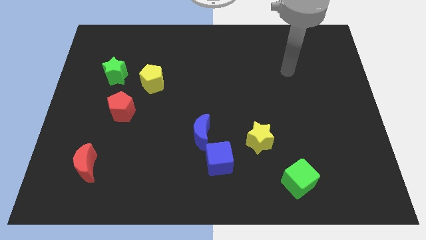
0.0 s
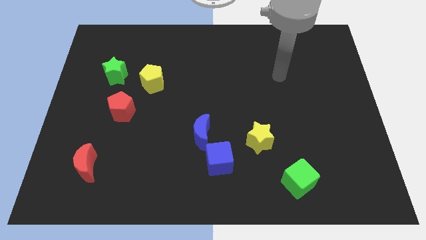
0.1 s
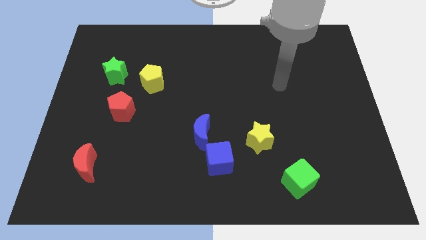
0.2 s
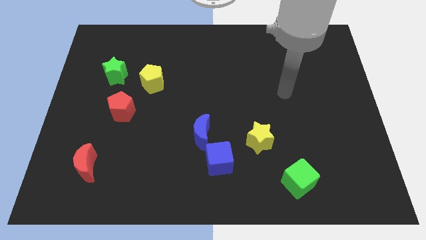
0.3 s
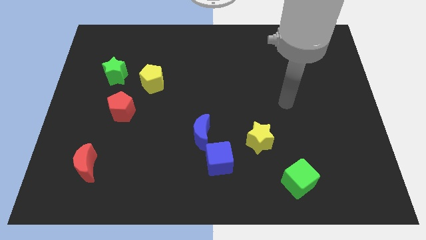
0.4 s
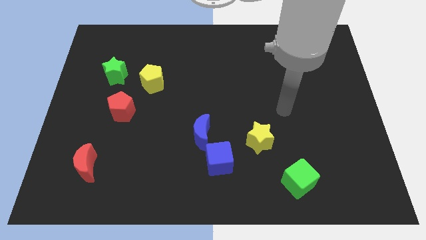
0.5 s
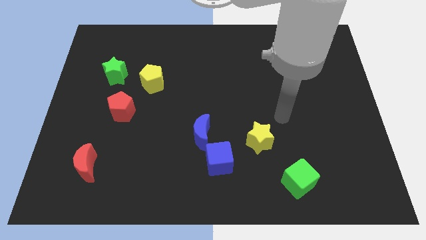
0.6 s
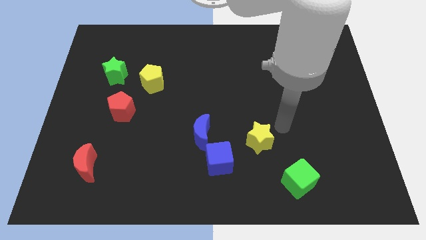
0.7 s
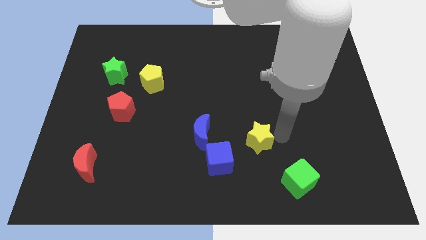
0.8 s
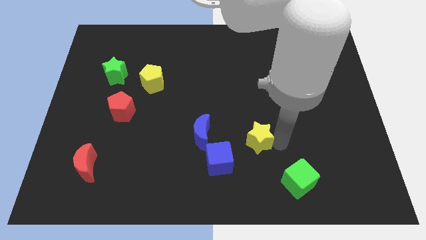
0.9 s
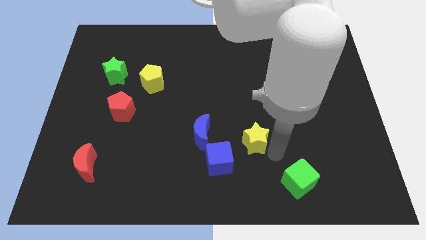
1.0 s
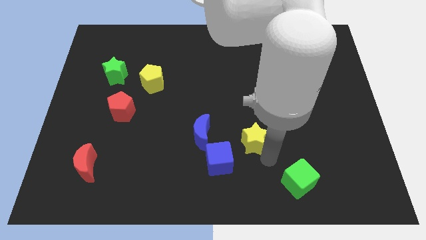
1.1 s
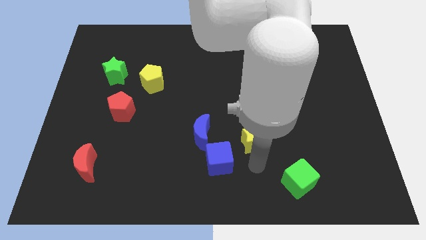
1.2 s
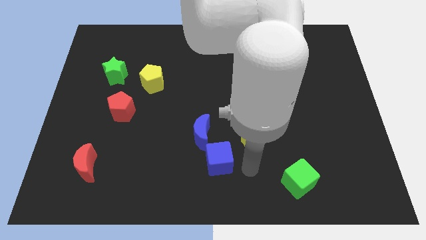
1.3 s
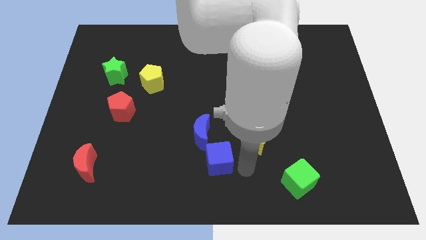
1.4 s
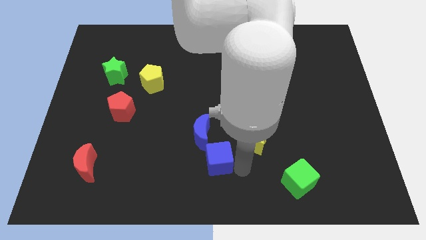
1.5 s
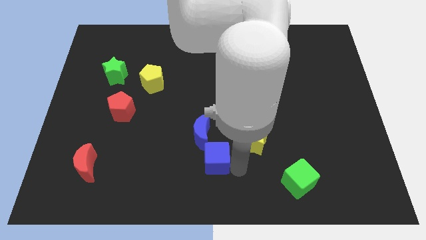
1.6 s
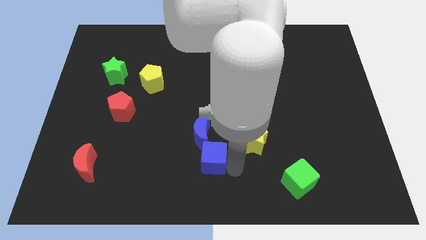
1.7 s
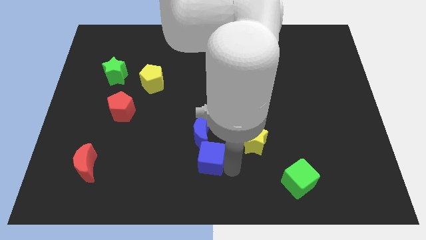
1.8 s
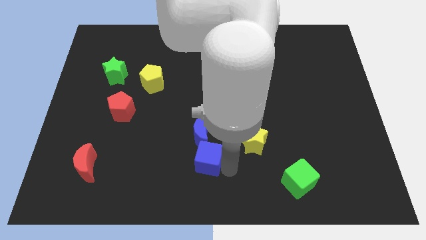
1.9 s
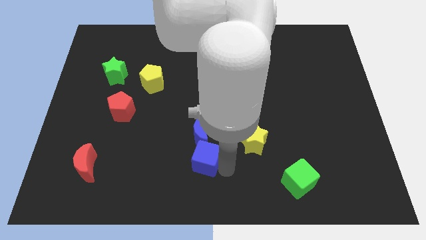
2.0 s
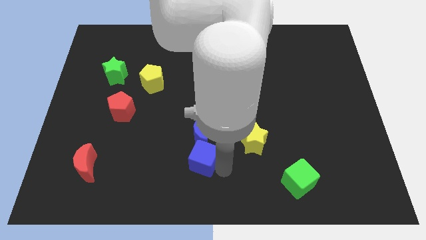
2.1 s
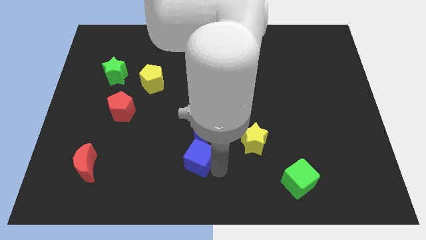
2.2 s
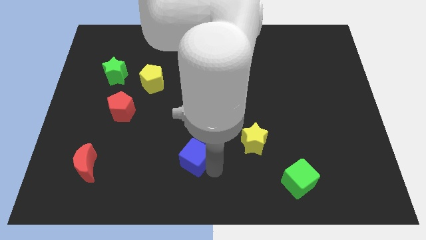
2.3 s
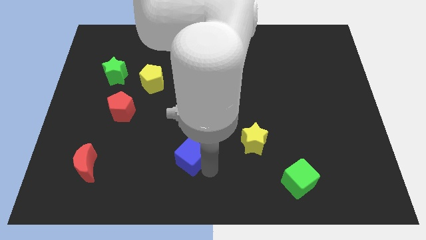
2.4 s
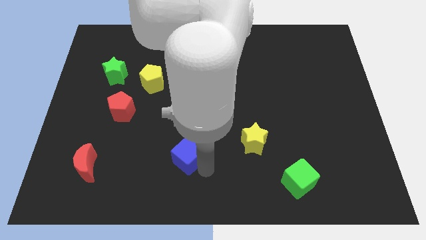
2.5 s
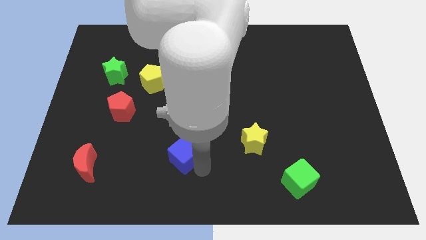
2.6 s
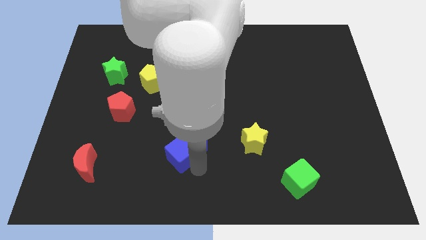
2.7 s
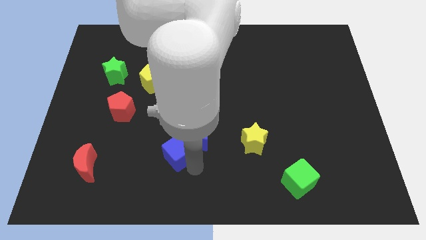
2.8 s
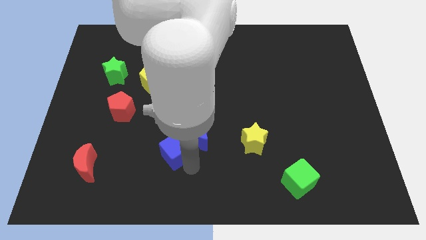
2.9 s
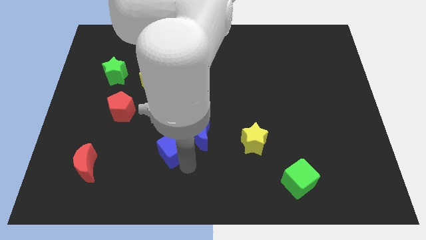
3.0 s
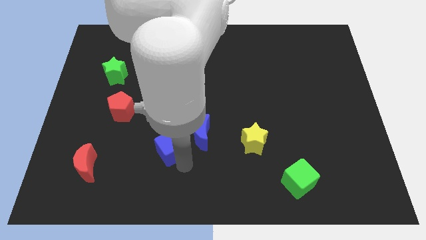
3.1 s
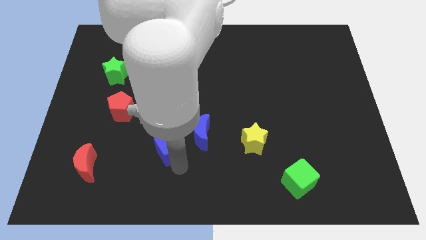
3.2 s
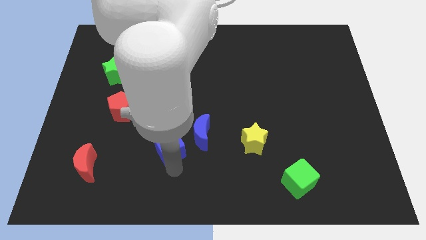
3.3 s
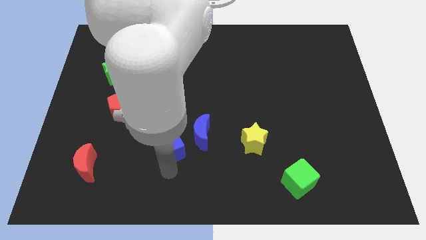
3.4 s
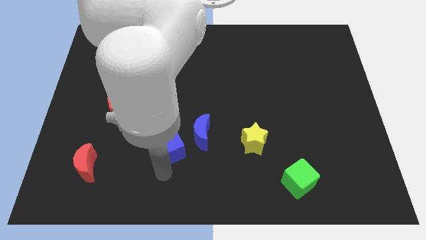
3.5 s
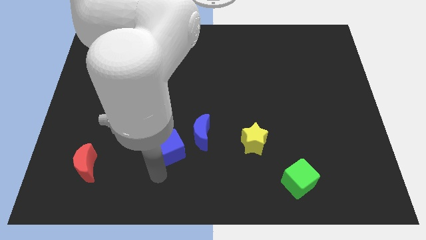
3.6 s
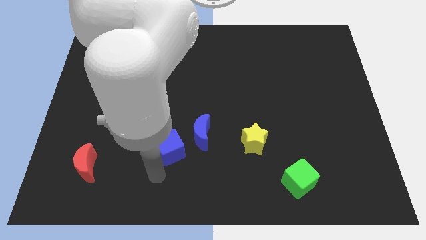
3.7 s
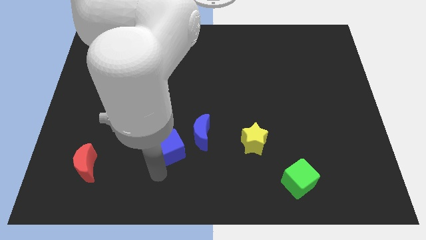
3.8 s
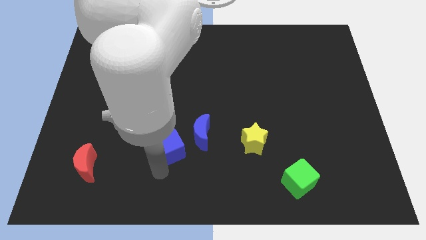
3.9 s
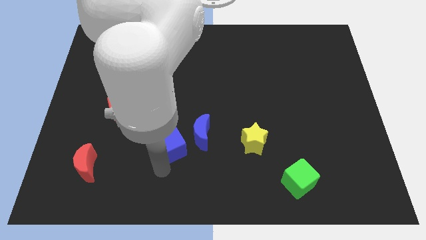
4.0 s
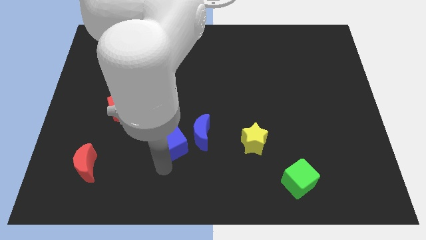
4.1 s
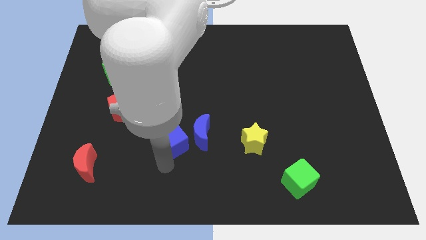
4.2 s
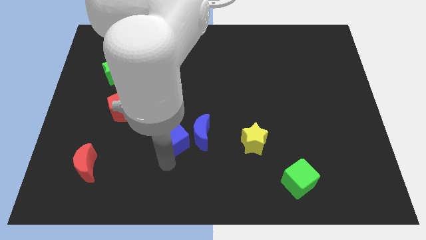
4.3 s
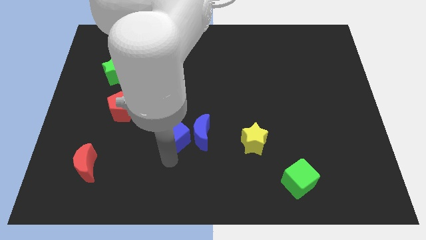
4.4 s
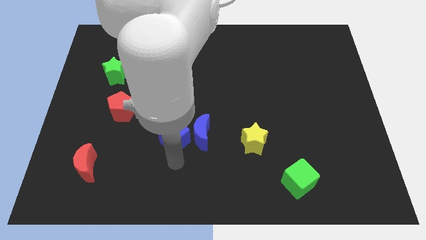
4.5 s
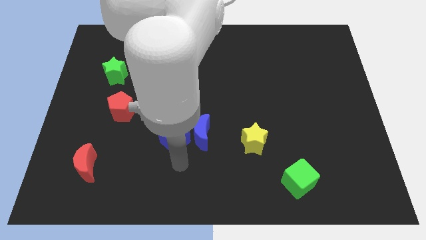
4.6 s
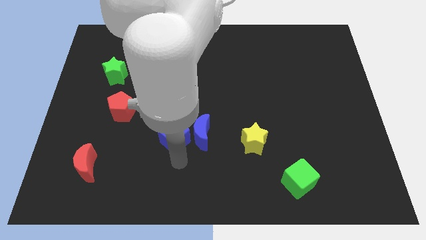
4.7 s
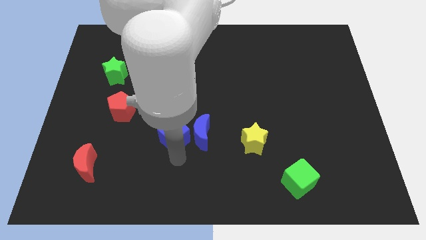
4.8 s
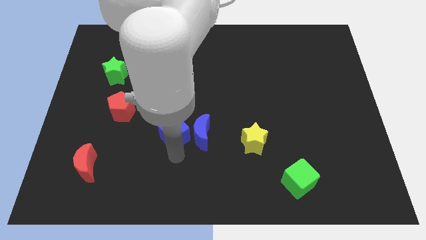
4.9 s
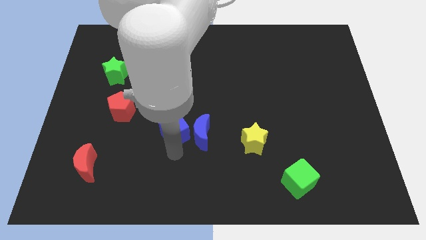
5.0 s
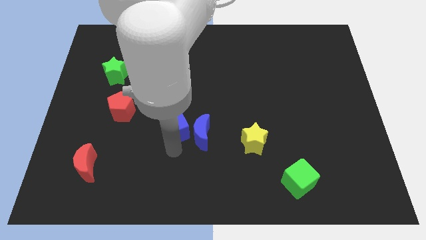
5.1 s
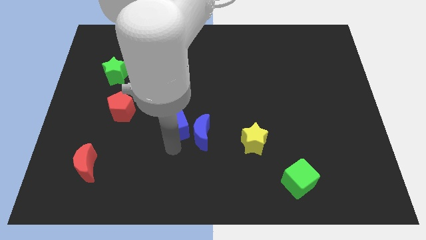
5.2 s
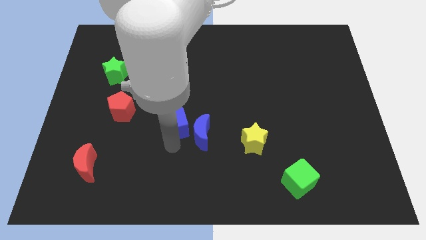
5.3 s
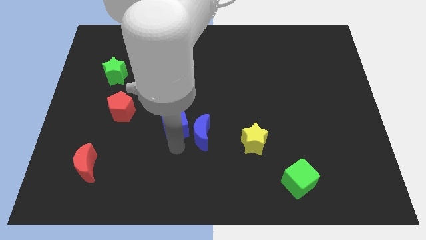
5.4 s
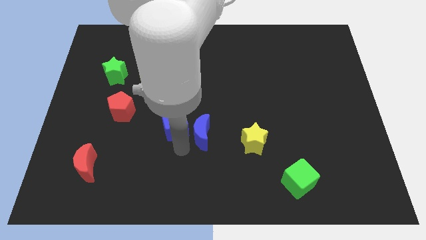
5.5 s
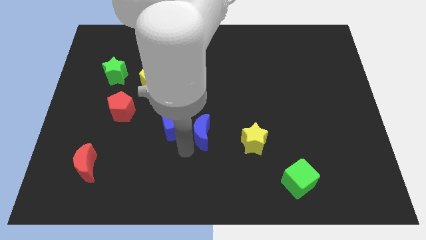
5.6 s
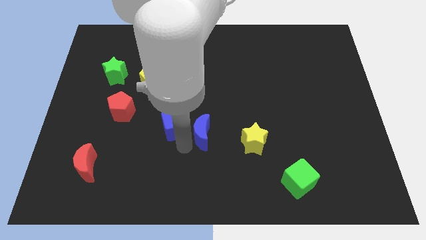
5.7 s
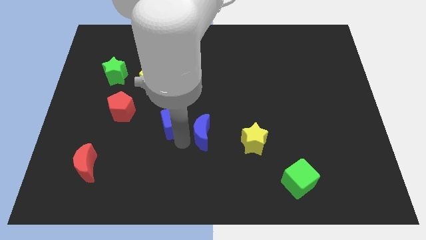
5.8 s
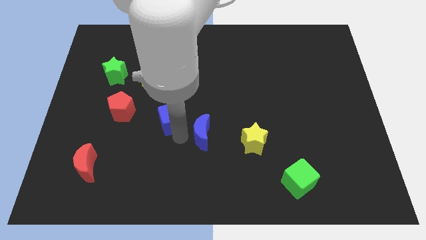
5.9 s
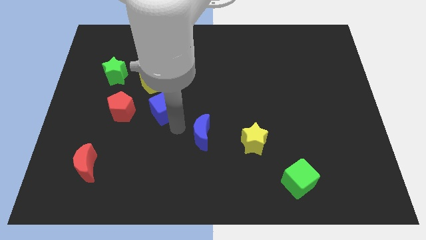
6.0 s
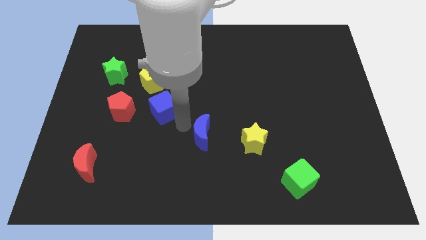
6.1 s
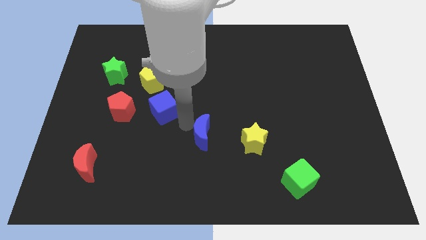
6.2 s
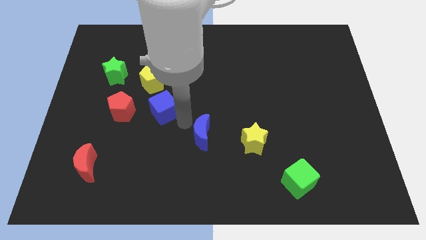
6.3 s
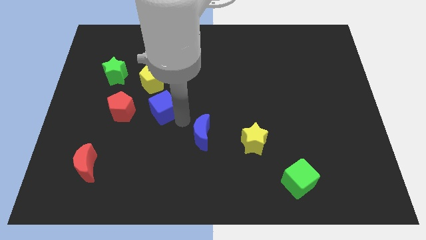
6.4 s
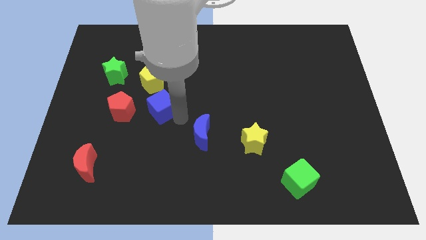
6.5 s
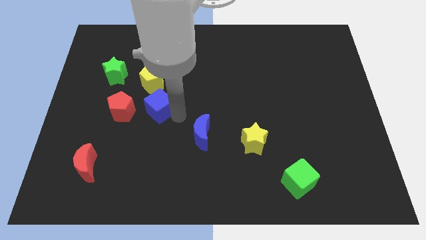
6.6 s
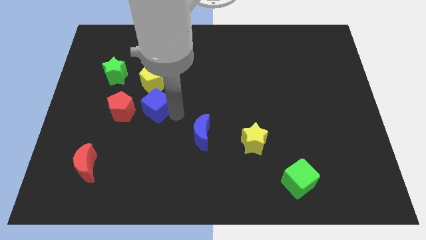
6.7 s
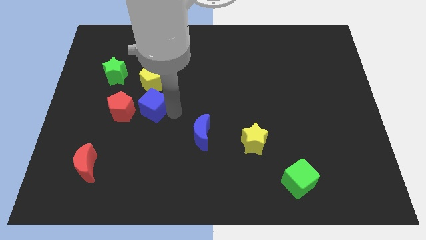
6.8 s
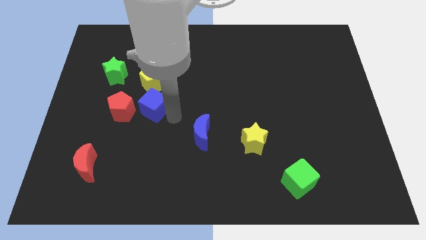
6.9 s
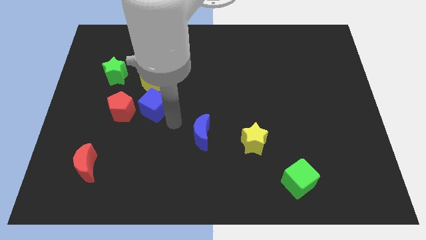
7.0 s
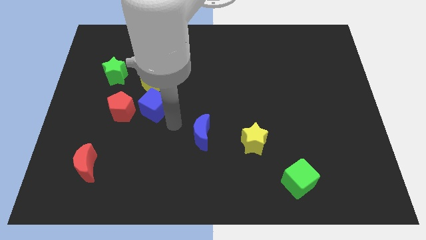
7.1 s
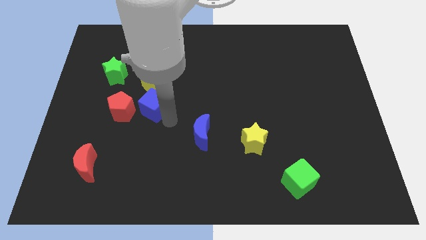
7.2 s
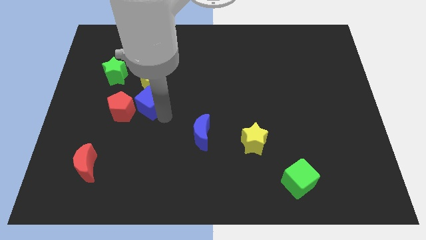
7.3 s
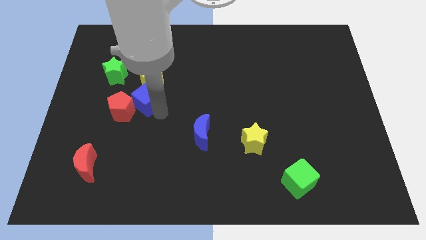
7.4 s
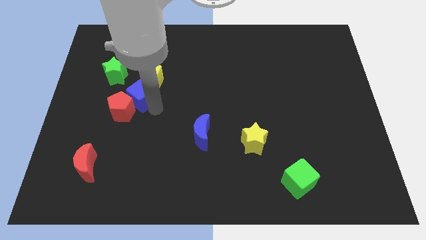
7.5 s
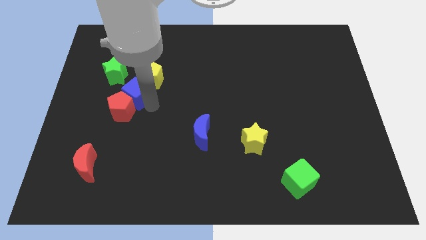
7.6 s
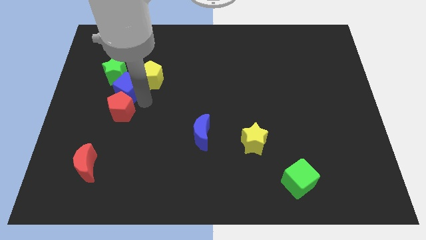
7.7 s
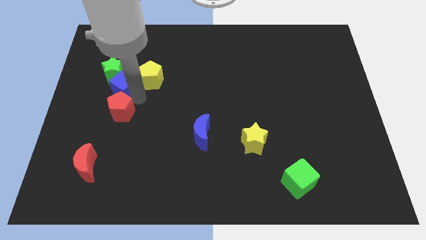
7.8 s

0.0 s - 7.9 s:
push the blue cube to the green star
